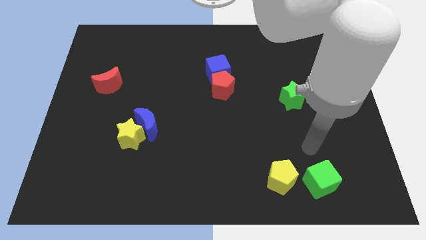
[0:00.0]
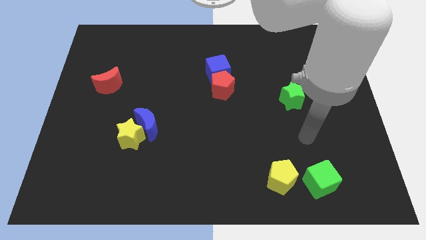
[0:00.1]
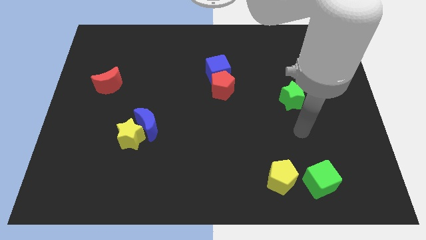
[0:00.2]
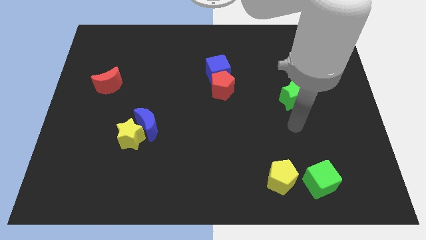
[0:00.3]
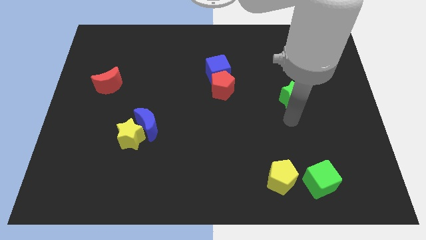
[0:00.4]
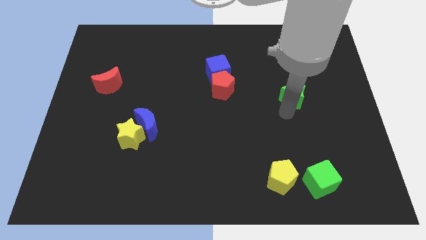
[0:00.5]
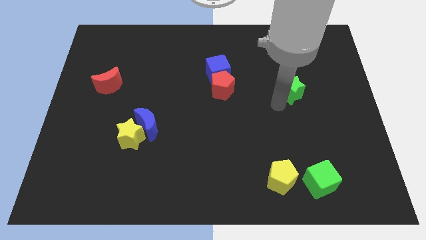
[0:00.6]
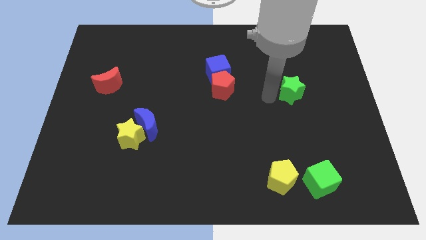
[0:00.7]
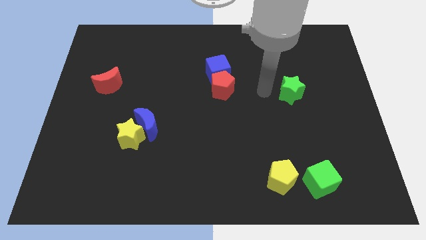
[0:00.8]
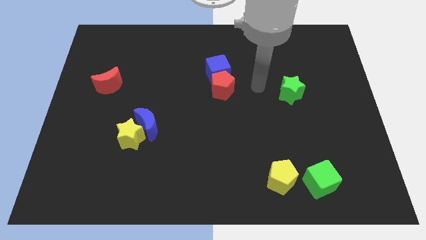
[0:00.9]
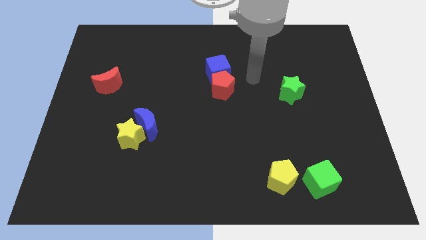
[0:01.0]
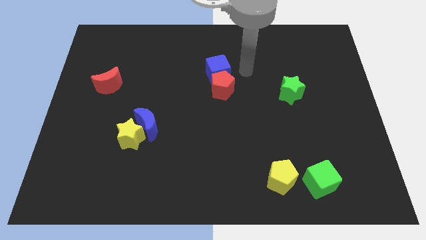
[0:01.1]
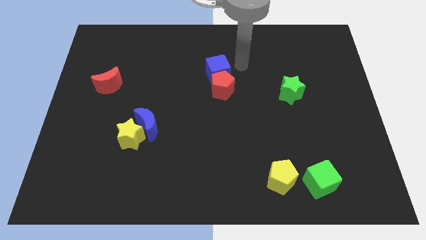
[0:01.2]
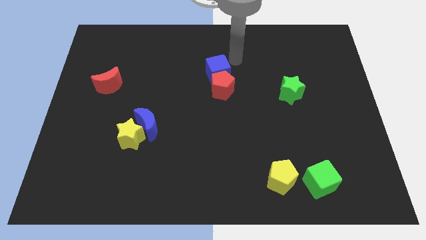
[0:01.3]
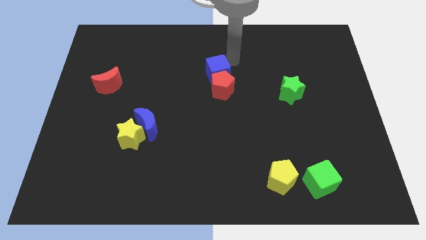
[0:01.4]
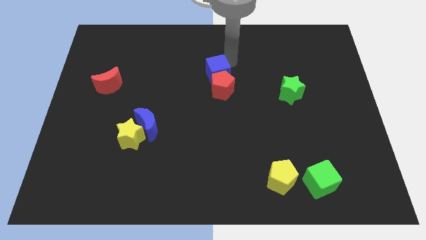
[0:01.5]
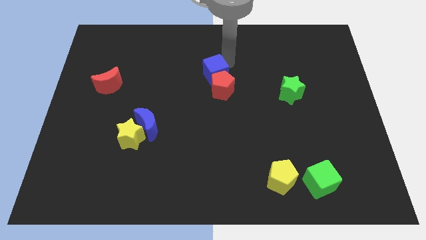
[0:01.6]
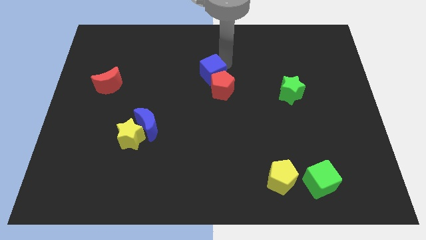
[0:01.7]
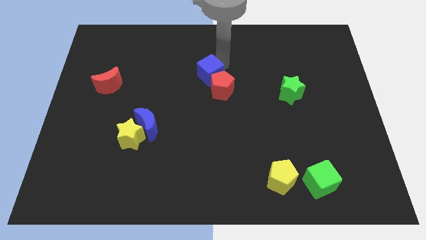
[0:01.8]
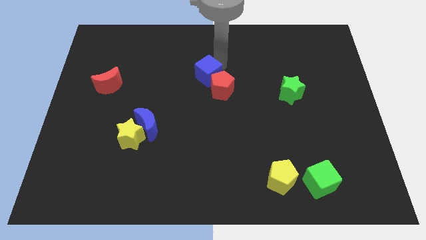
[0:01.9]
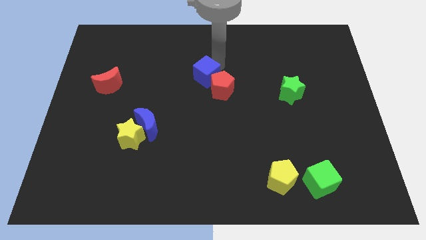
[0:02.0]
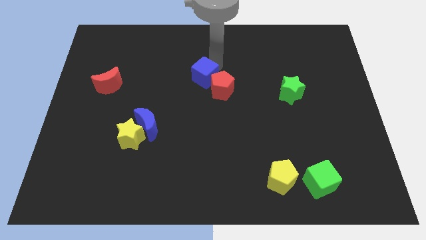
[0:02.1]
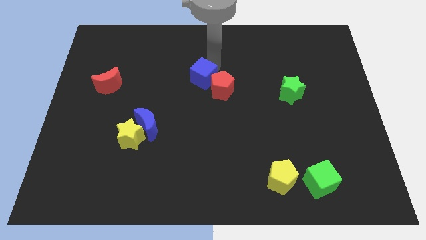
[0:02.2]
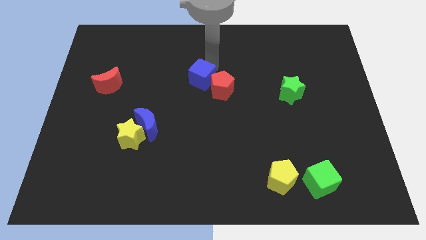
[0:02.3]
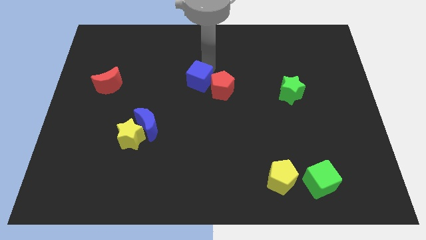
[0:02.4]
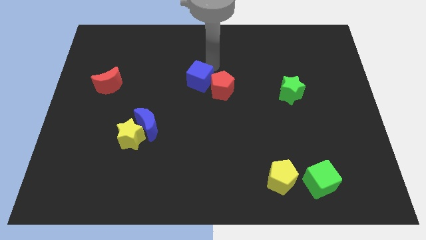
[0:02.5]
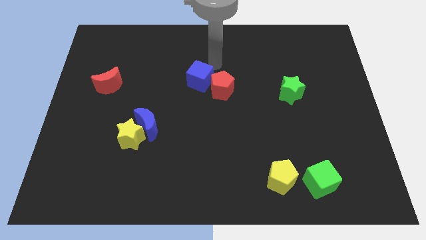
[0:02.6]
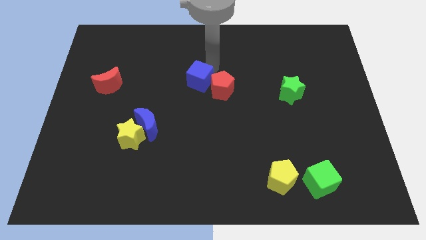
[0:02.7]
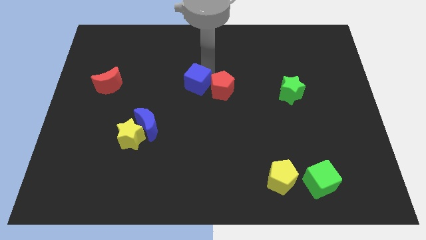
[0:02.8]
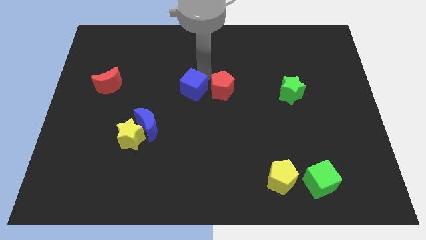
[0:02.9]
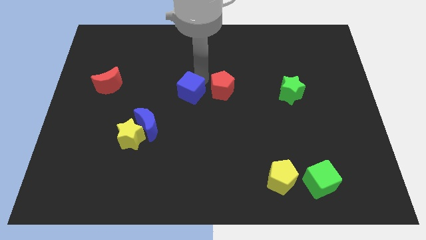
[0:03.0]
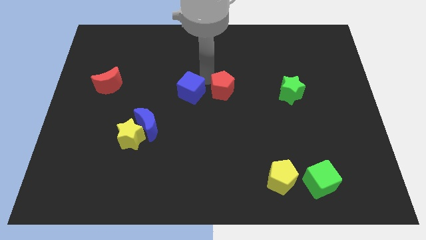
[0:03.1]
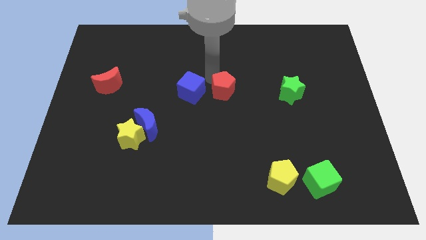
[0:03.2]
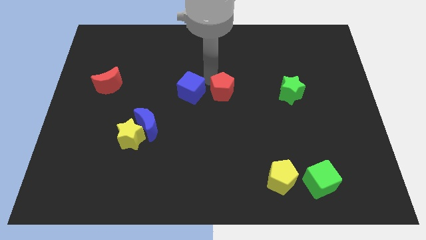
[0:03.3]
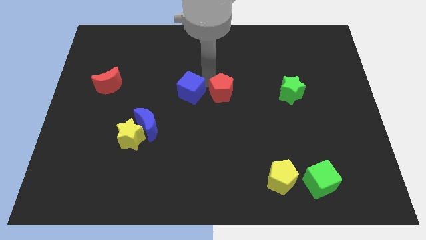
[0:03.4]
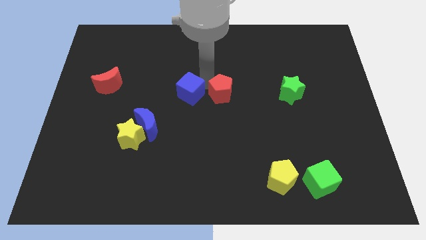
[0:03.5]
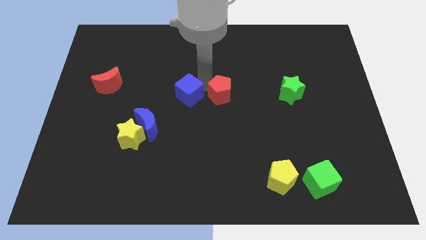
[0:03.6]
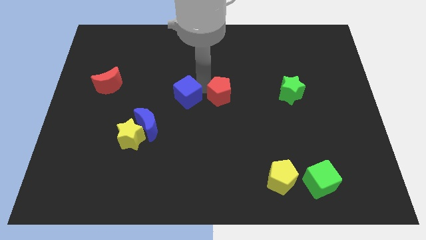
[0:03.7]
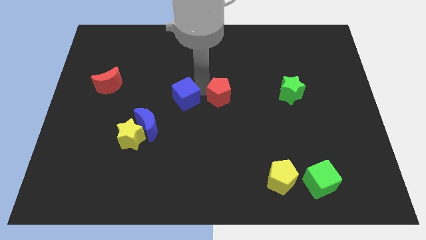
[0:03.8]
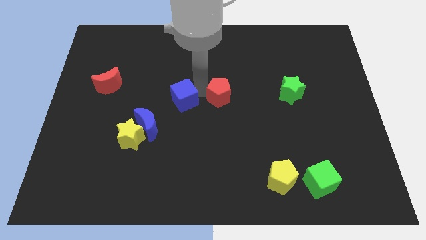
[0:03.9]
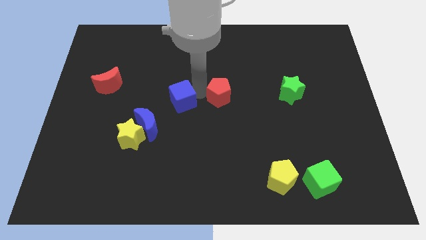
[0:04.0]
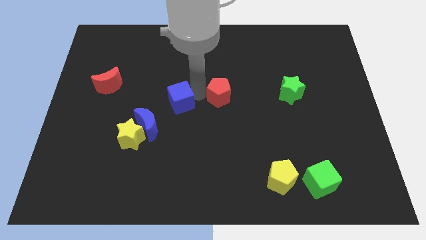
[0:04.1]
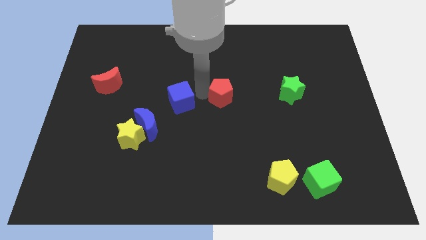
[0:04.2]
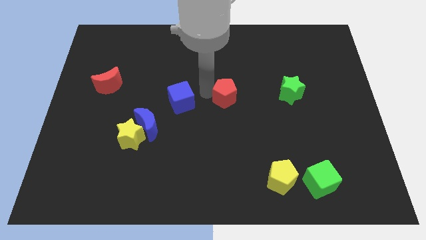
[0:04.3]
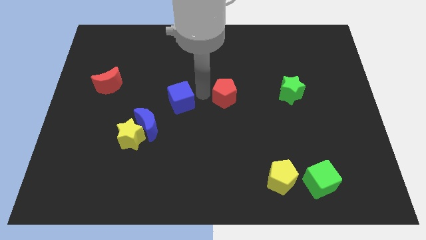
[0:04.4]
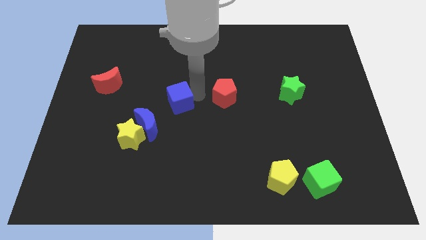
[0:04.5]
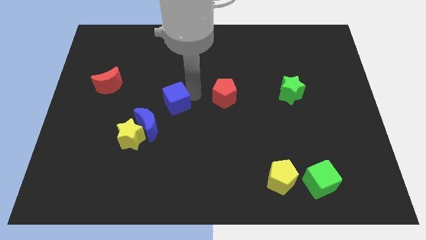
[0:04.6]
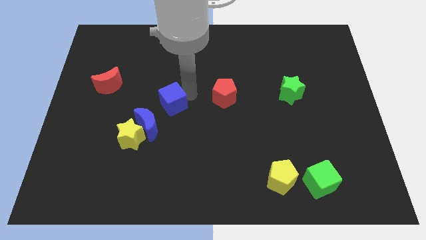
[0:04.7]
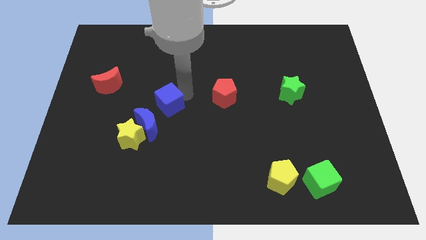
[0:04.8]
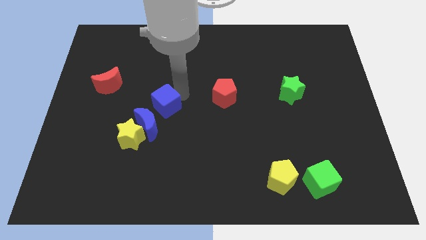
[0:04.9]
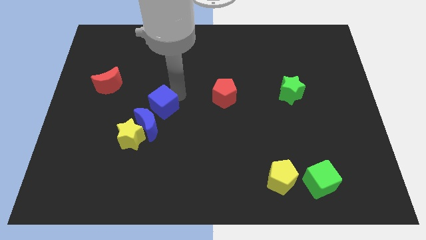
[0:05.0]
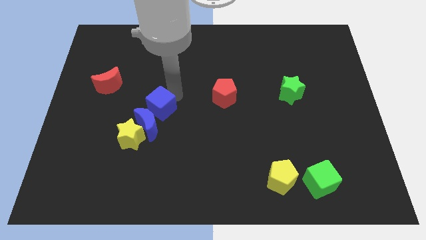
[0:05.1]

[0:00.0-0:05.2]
slide the blue cube to the blue moon

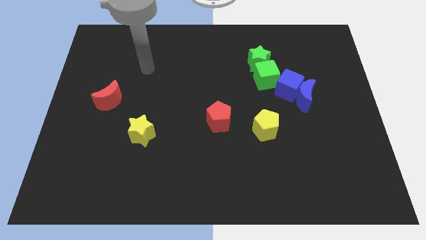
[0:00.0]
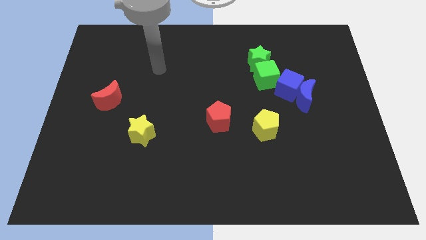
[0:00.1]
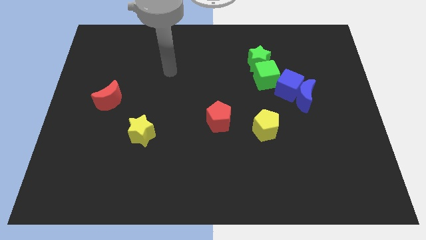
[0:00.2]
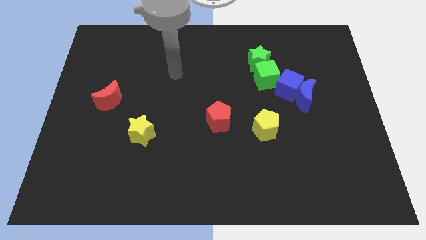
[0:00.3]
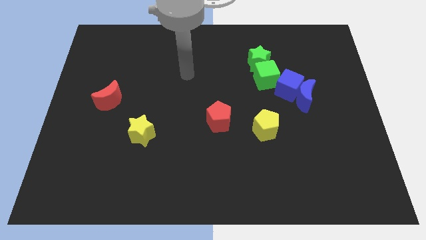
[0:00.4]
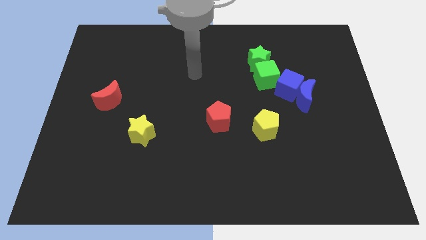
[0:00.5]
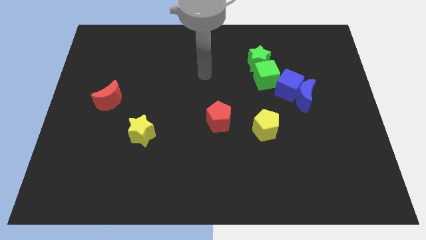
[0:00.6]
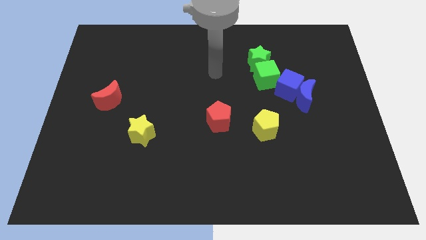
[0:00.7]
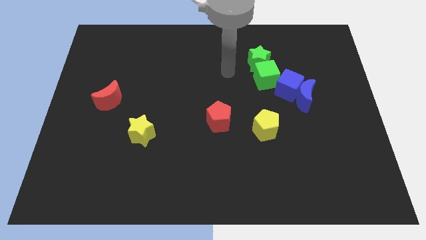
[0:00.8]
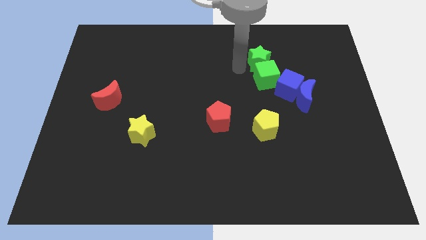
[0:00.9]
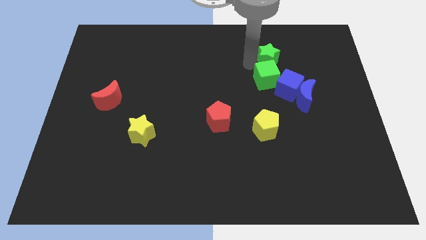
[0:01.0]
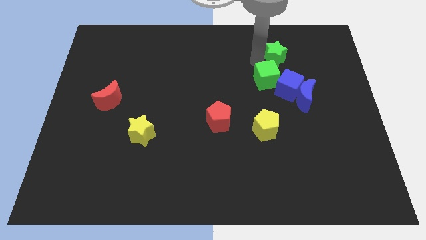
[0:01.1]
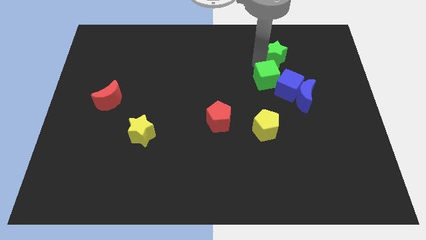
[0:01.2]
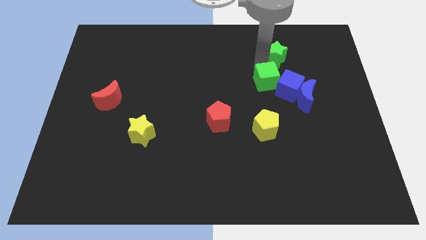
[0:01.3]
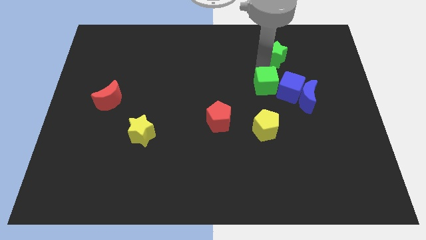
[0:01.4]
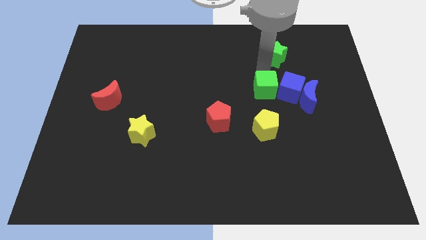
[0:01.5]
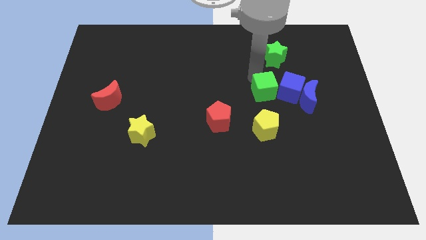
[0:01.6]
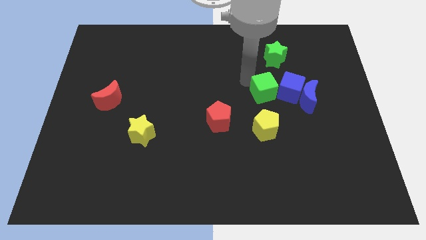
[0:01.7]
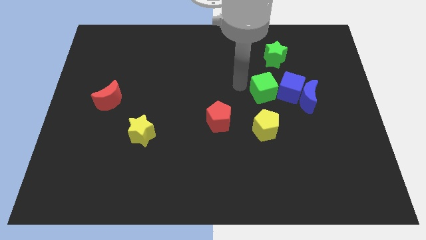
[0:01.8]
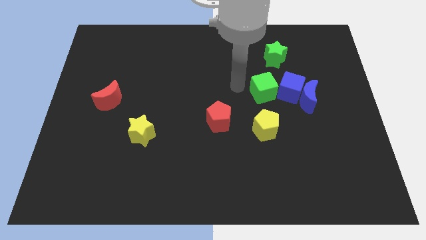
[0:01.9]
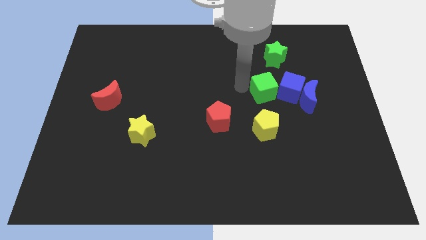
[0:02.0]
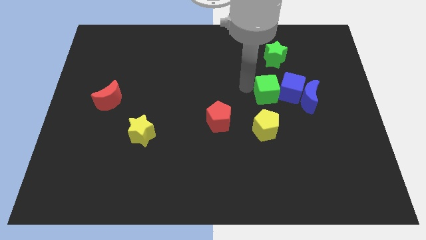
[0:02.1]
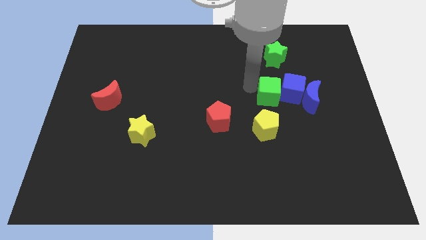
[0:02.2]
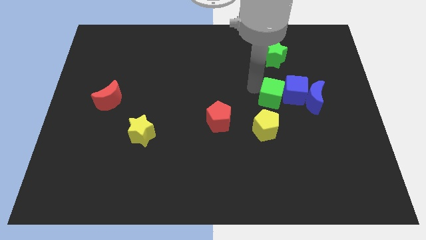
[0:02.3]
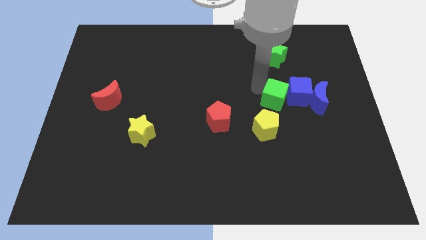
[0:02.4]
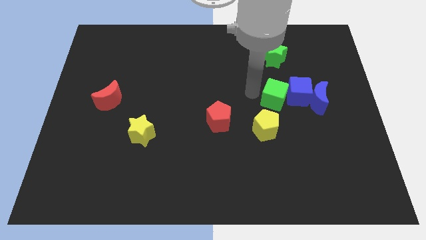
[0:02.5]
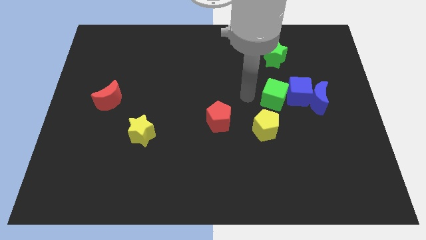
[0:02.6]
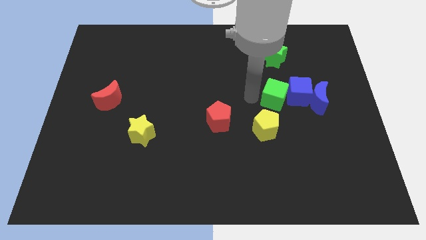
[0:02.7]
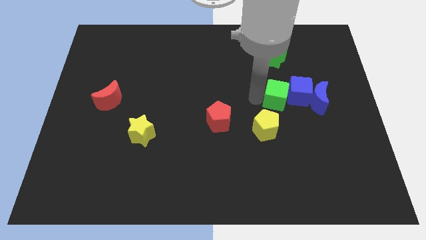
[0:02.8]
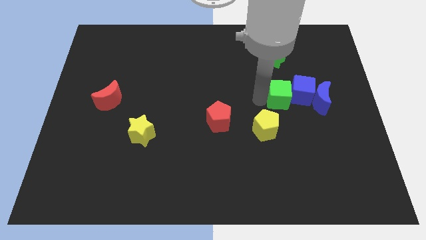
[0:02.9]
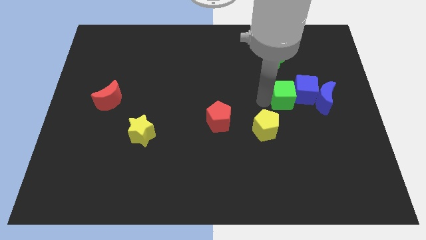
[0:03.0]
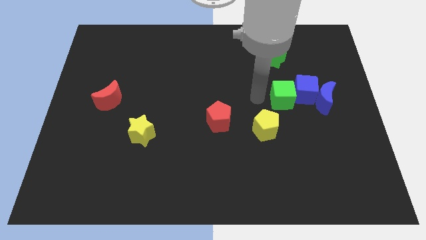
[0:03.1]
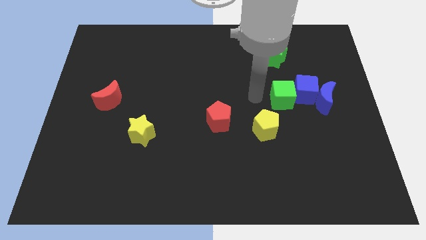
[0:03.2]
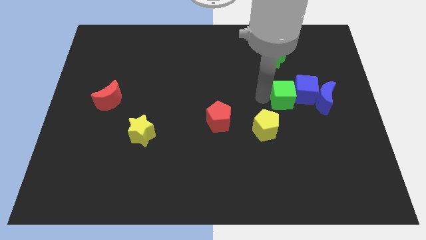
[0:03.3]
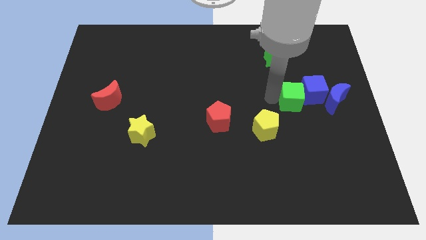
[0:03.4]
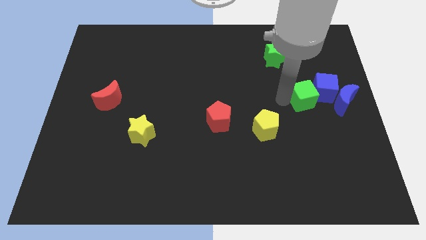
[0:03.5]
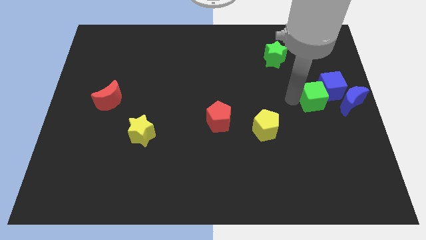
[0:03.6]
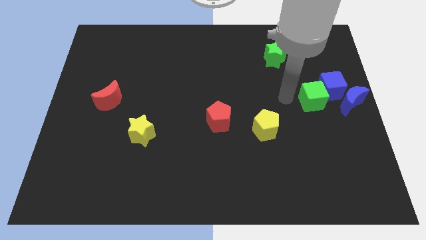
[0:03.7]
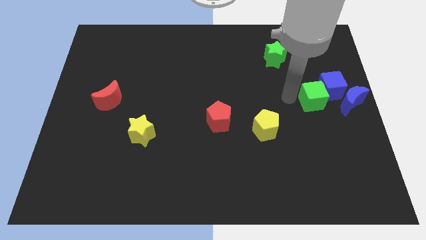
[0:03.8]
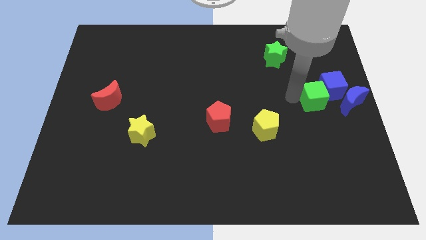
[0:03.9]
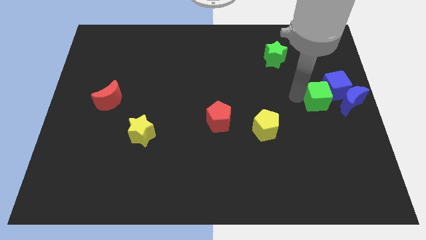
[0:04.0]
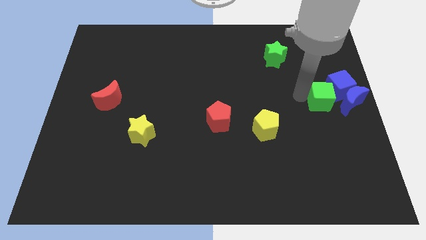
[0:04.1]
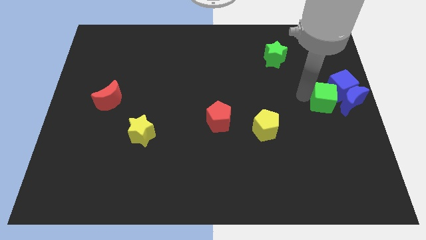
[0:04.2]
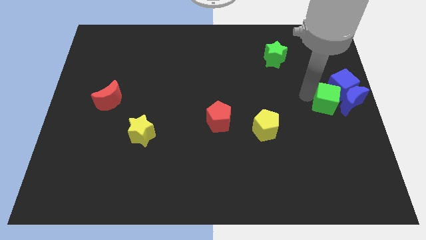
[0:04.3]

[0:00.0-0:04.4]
slide the green cube next to the blue moon
